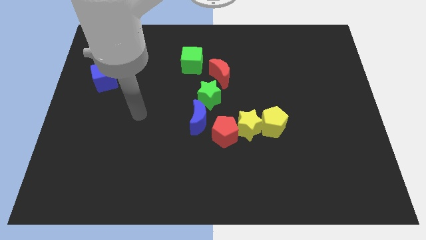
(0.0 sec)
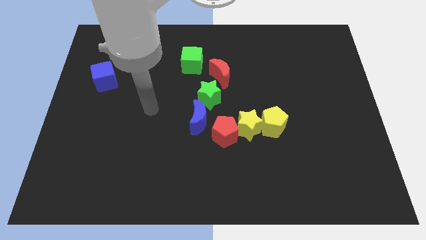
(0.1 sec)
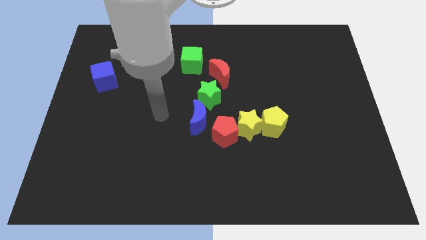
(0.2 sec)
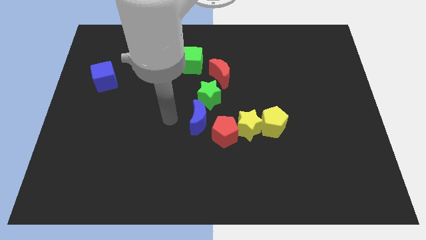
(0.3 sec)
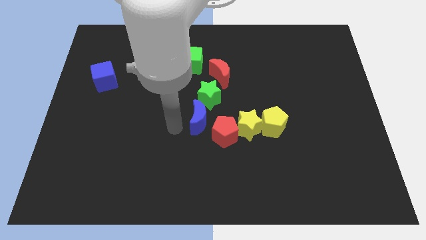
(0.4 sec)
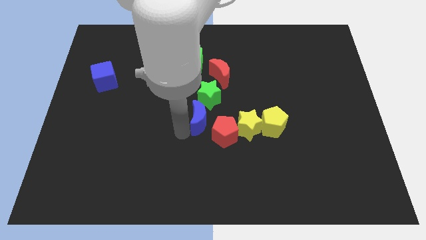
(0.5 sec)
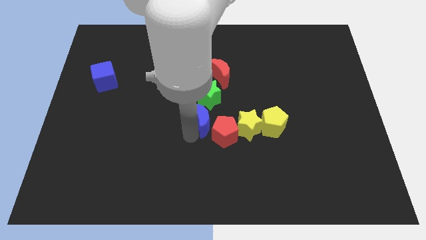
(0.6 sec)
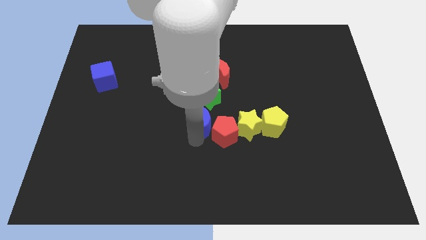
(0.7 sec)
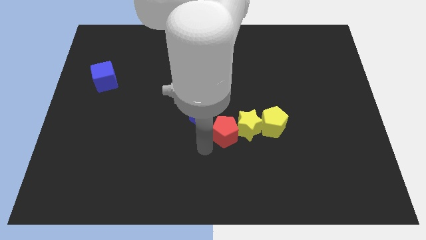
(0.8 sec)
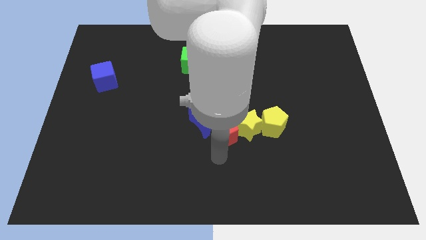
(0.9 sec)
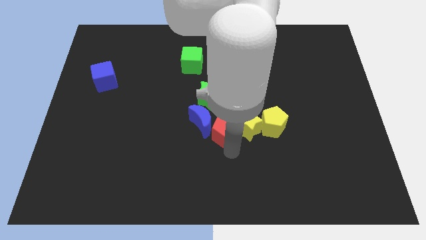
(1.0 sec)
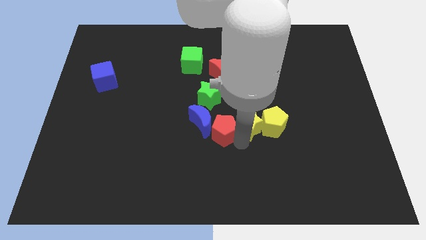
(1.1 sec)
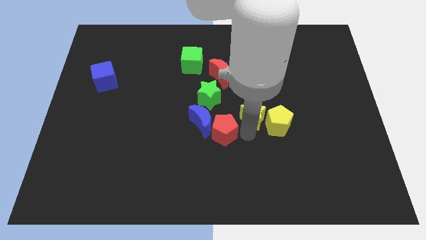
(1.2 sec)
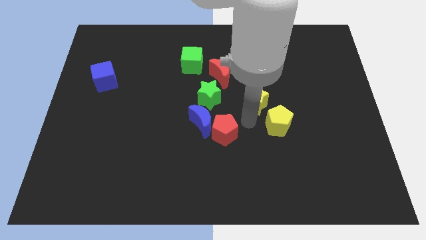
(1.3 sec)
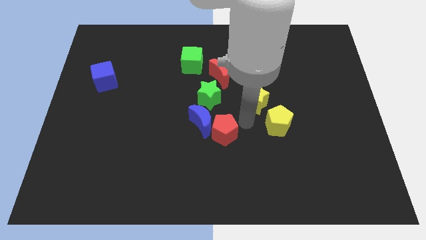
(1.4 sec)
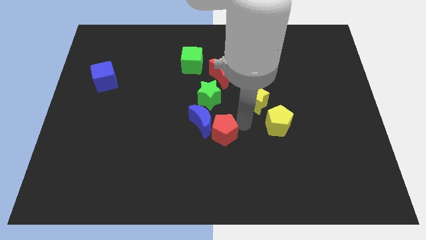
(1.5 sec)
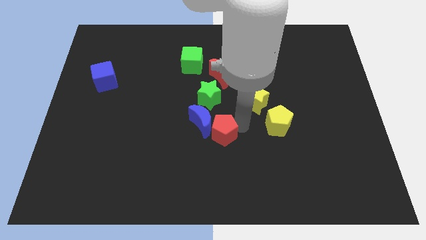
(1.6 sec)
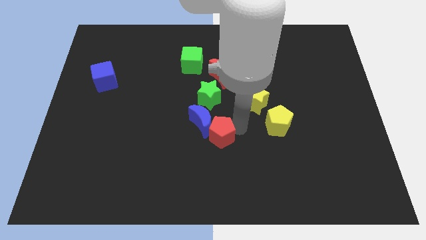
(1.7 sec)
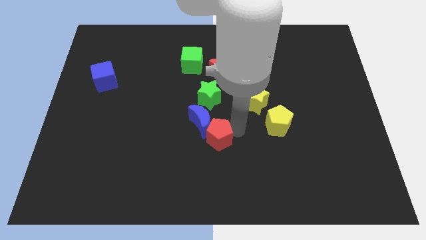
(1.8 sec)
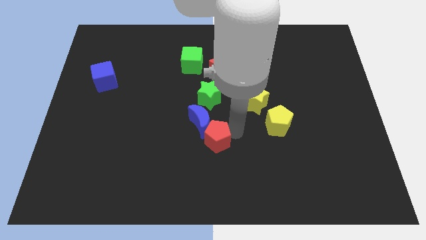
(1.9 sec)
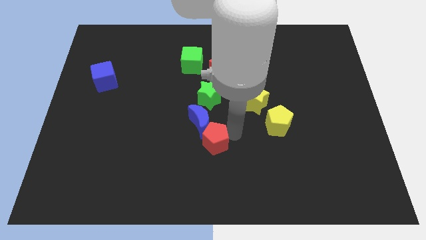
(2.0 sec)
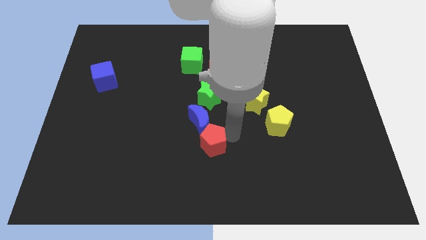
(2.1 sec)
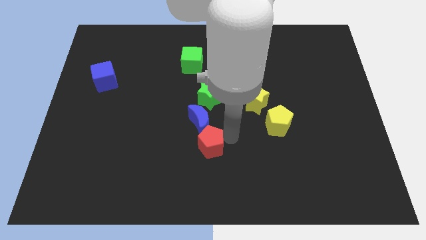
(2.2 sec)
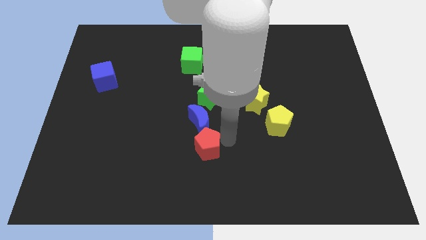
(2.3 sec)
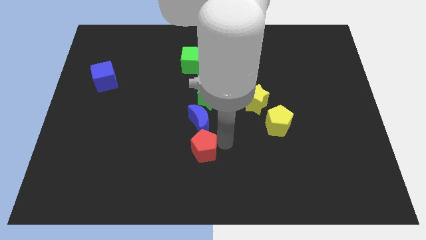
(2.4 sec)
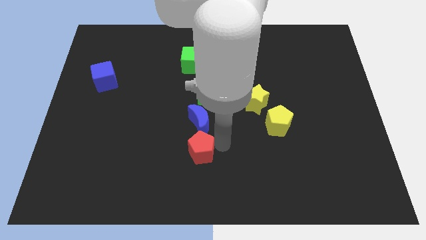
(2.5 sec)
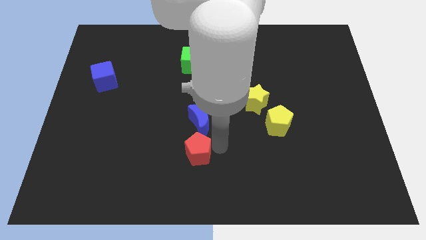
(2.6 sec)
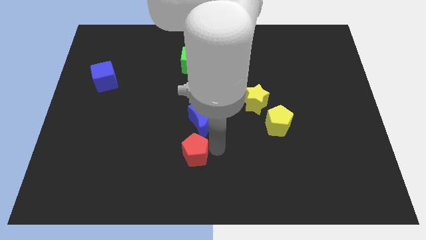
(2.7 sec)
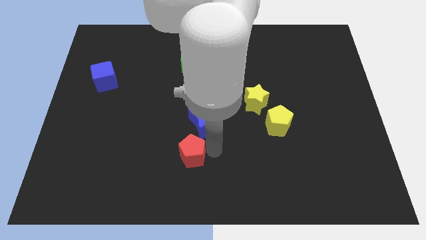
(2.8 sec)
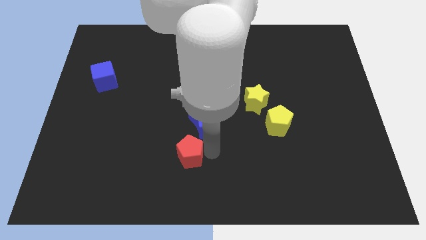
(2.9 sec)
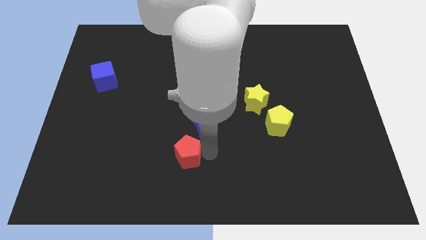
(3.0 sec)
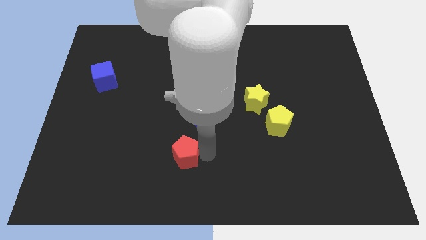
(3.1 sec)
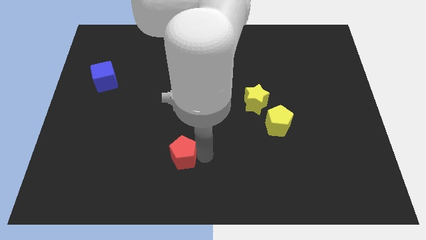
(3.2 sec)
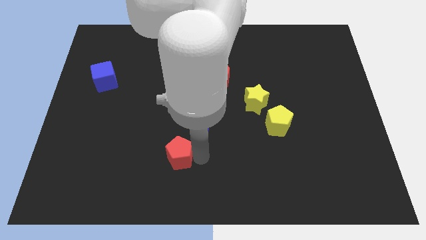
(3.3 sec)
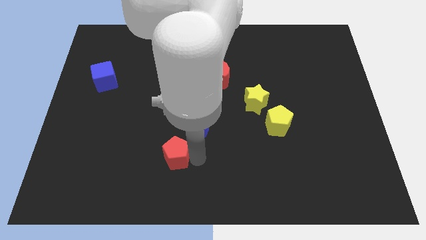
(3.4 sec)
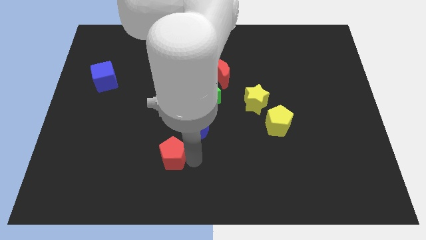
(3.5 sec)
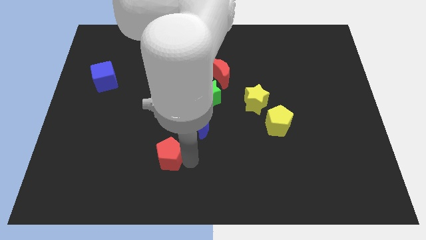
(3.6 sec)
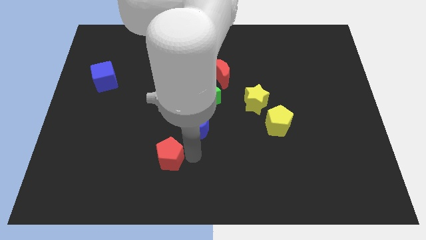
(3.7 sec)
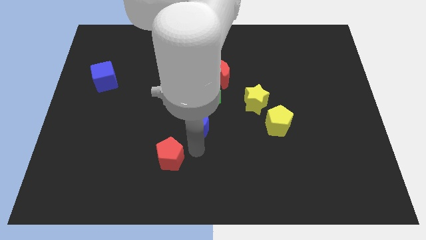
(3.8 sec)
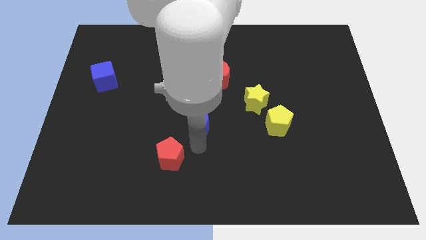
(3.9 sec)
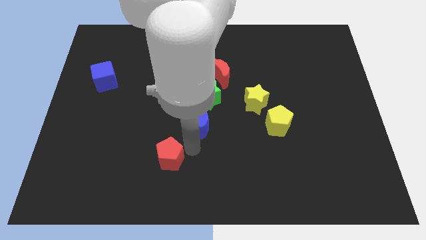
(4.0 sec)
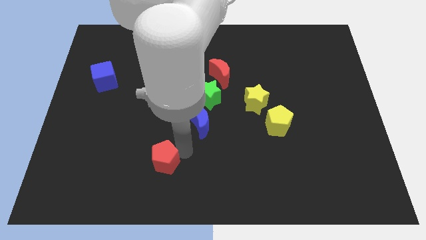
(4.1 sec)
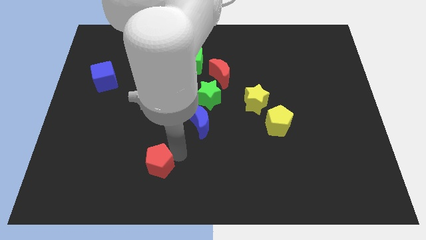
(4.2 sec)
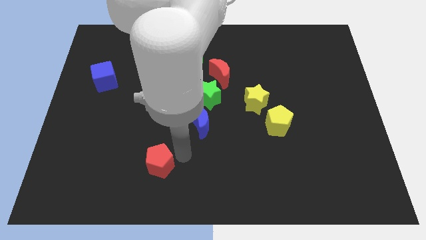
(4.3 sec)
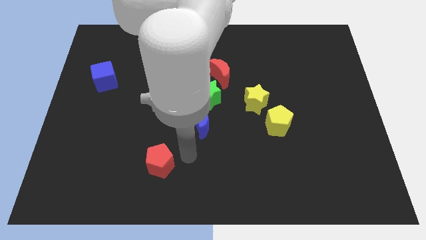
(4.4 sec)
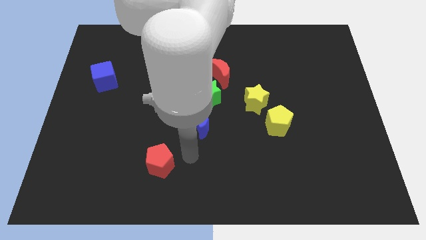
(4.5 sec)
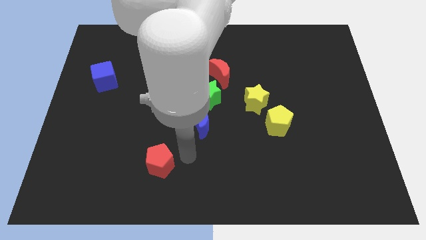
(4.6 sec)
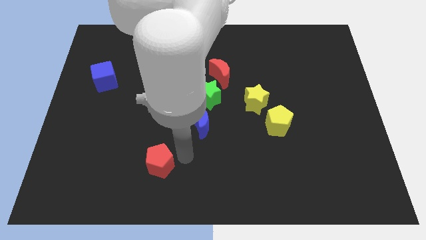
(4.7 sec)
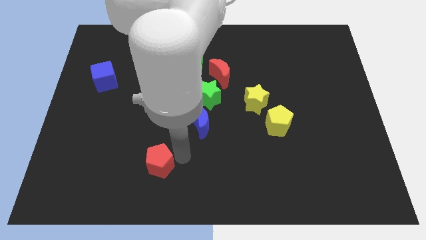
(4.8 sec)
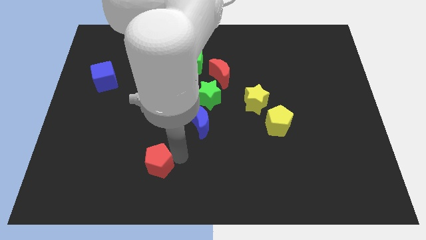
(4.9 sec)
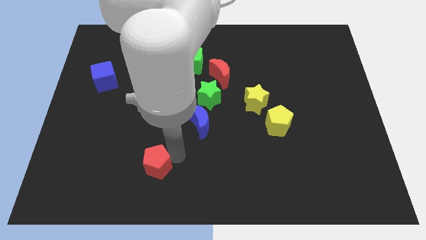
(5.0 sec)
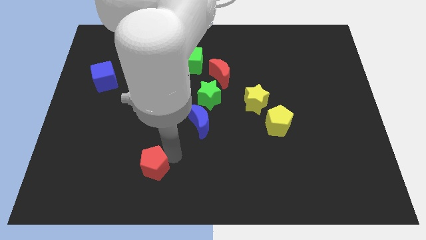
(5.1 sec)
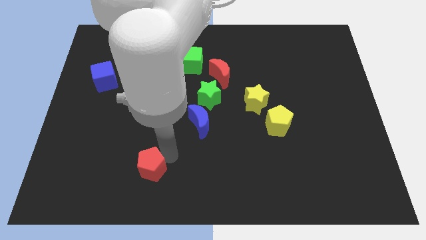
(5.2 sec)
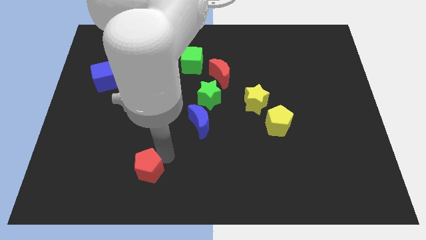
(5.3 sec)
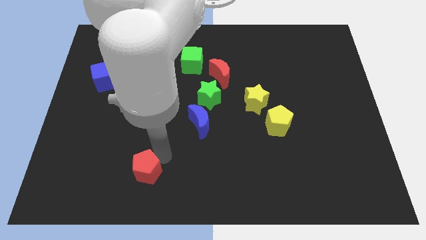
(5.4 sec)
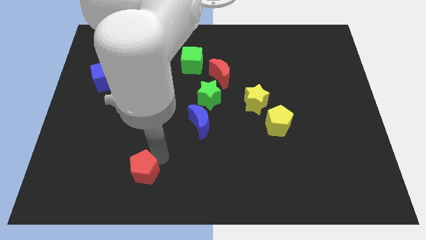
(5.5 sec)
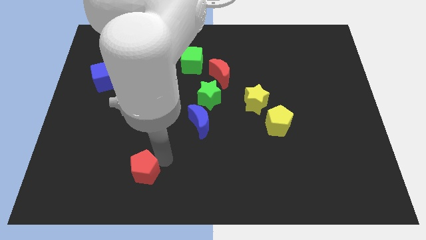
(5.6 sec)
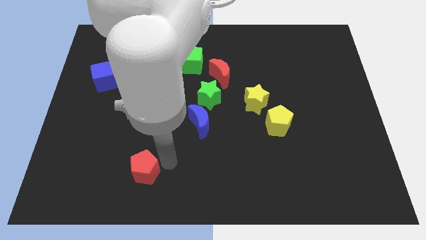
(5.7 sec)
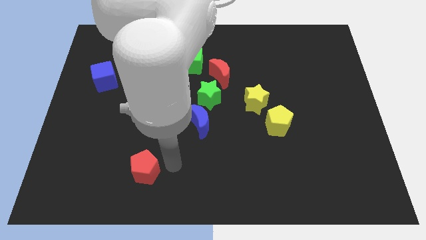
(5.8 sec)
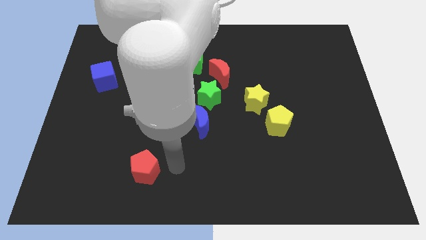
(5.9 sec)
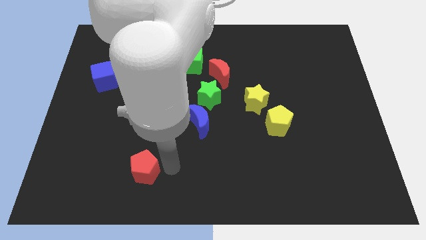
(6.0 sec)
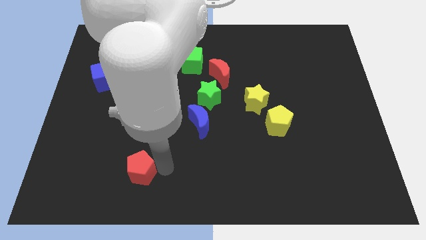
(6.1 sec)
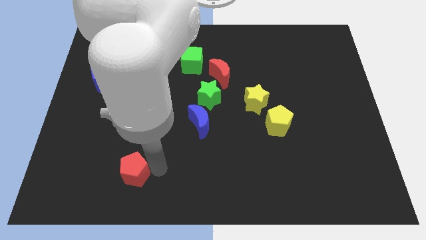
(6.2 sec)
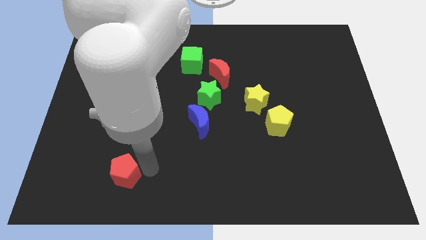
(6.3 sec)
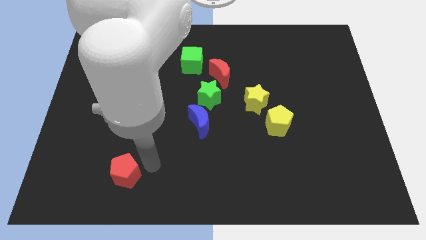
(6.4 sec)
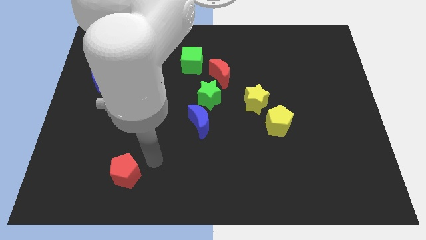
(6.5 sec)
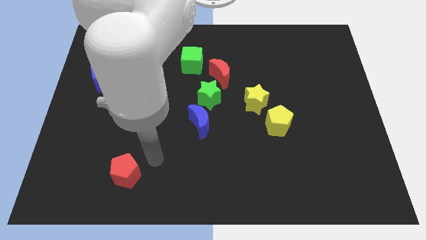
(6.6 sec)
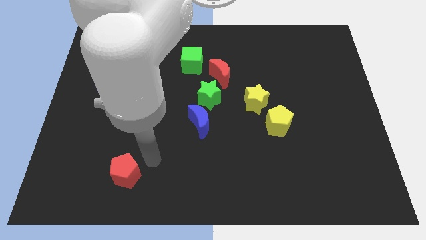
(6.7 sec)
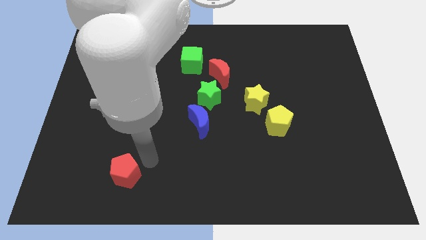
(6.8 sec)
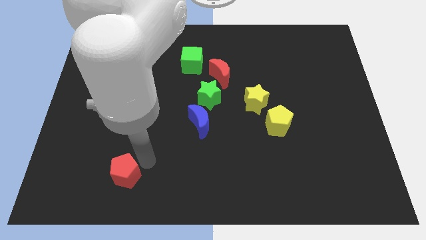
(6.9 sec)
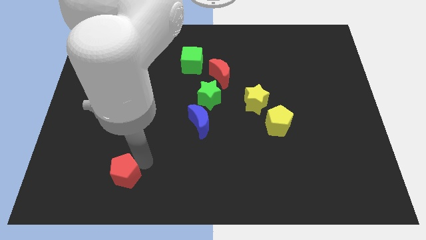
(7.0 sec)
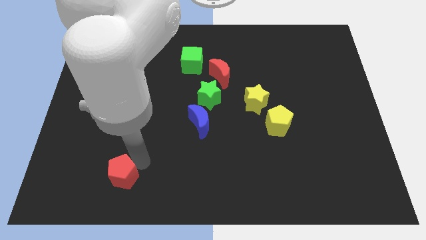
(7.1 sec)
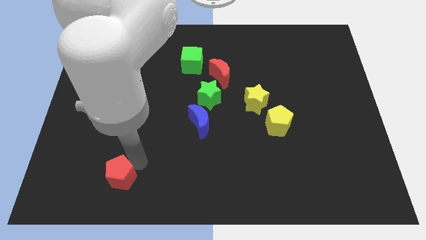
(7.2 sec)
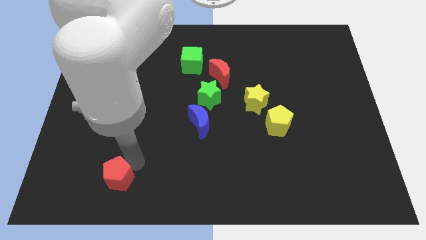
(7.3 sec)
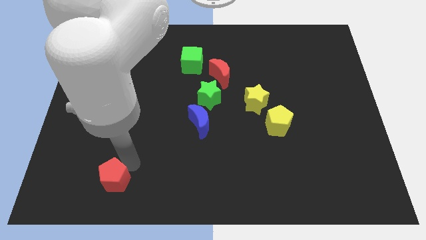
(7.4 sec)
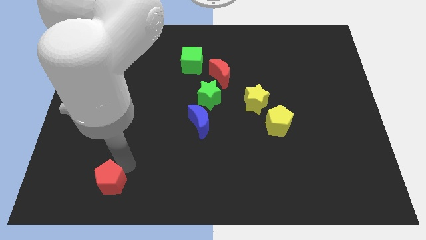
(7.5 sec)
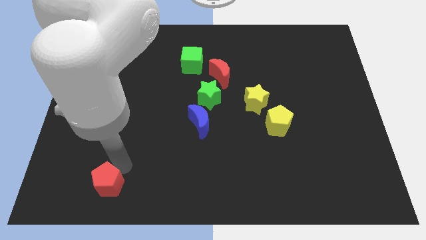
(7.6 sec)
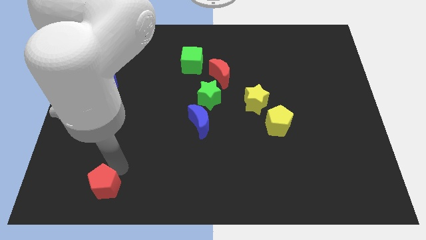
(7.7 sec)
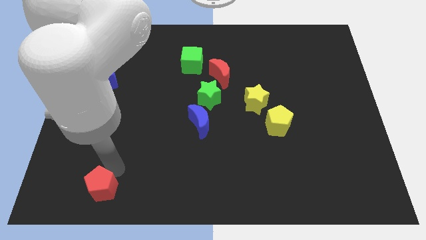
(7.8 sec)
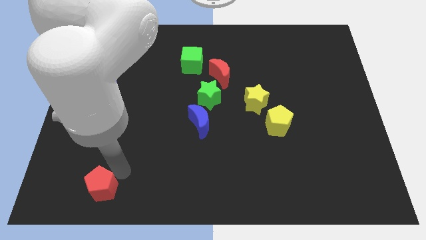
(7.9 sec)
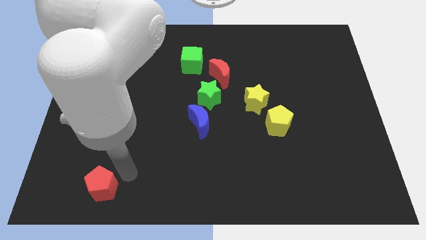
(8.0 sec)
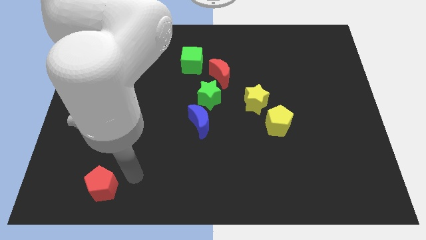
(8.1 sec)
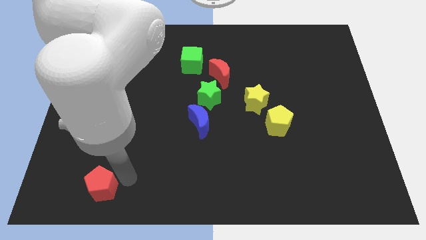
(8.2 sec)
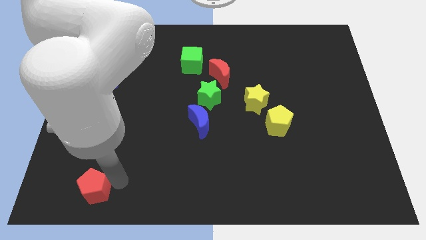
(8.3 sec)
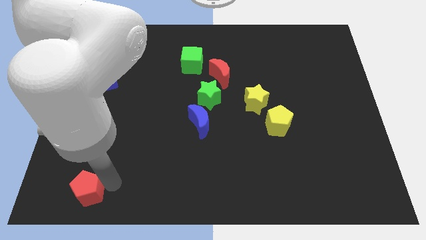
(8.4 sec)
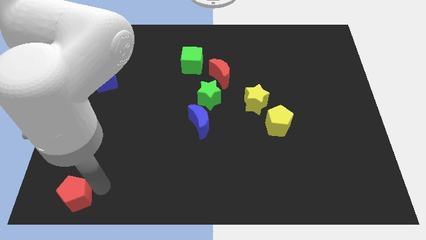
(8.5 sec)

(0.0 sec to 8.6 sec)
move the red pentagon to the lower left corner
